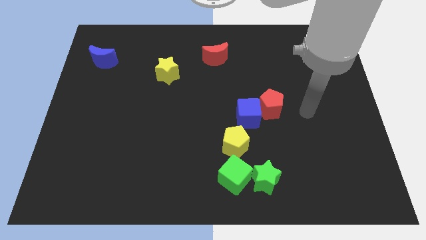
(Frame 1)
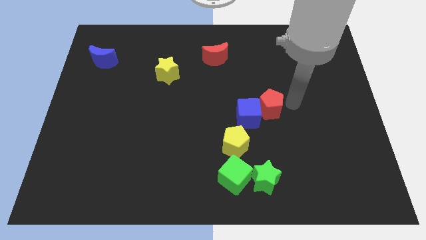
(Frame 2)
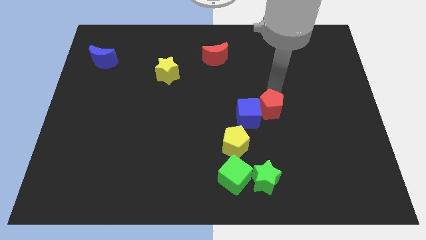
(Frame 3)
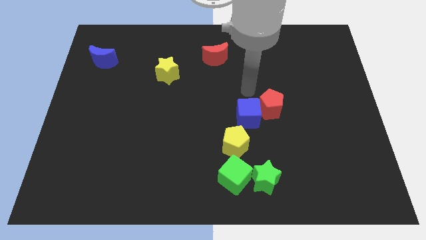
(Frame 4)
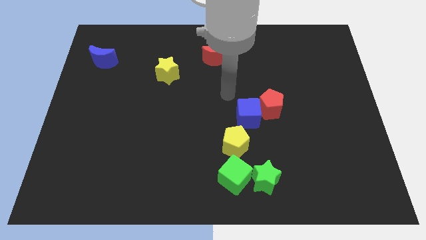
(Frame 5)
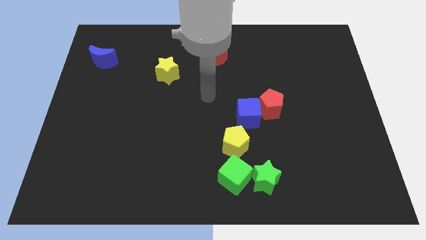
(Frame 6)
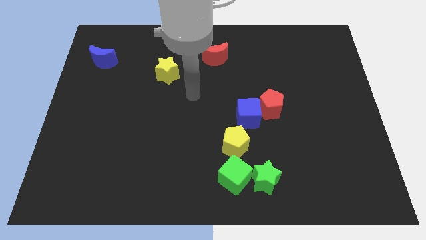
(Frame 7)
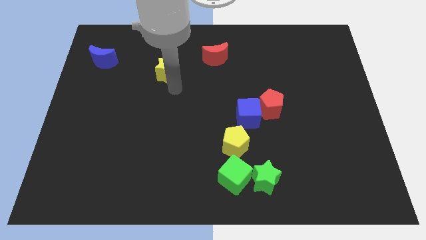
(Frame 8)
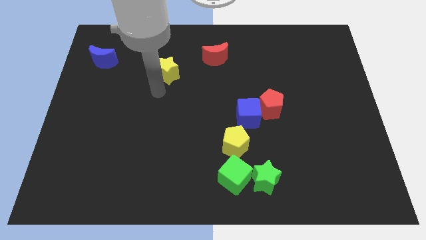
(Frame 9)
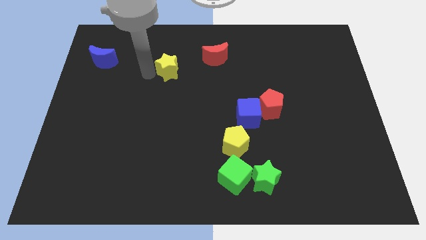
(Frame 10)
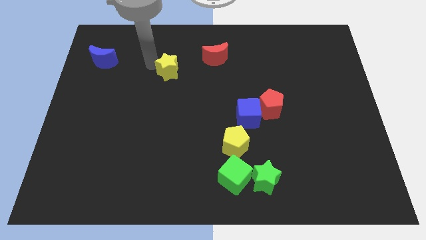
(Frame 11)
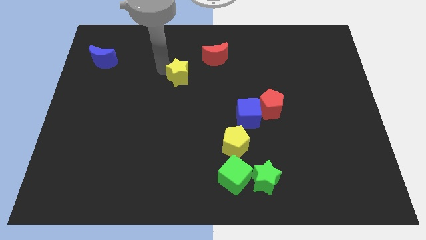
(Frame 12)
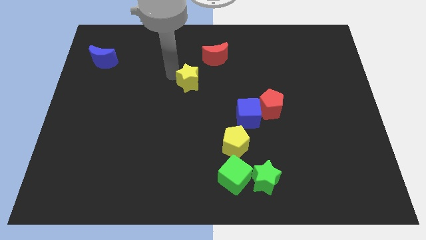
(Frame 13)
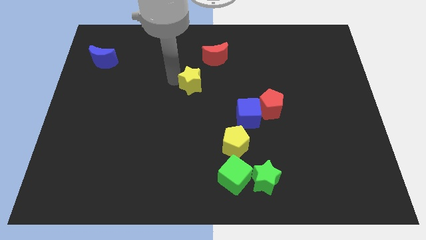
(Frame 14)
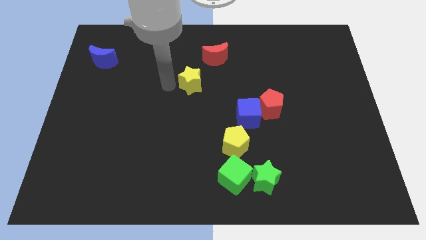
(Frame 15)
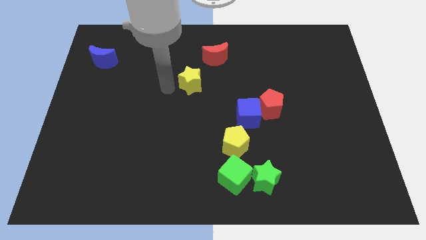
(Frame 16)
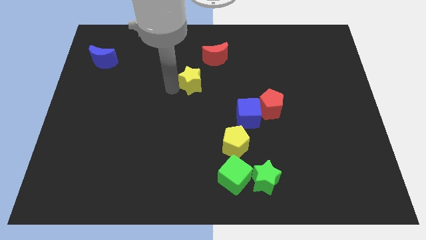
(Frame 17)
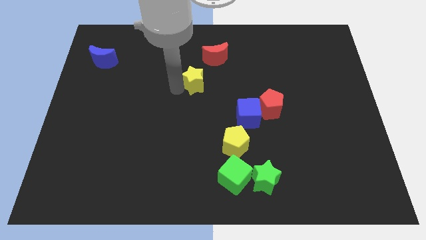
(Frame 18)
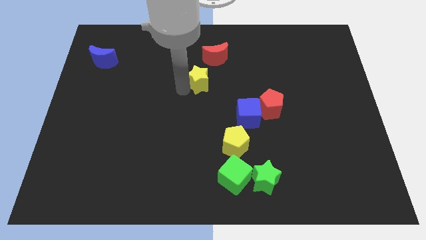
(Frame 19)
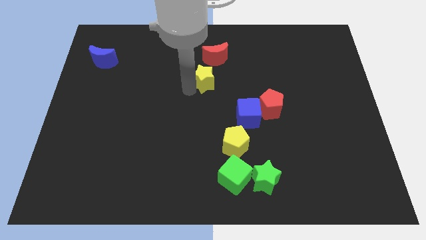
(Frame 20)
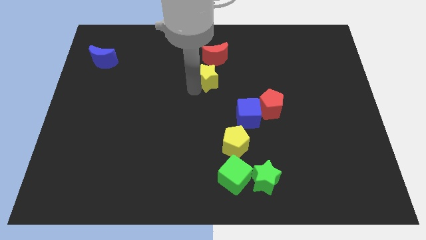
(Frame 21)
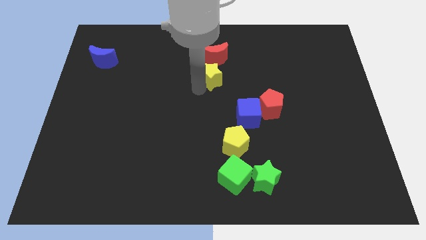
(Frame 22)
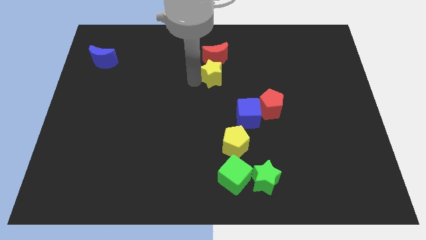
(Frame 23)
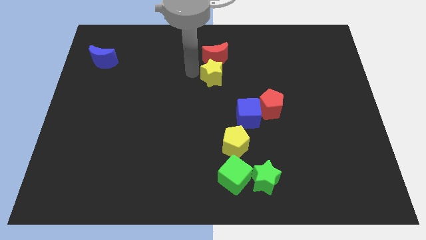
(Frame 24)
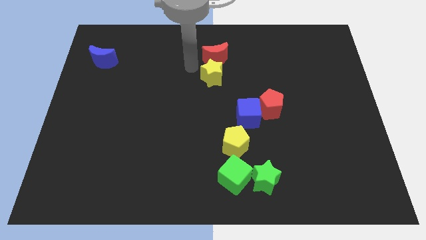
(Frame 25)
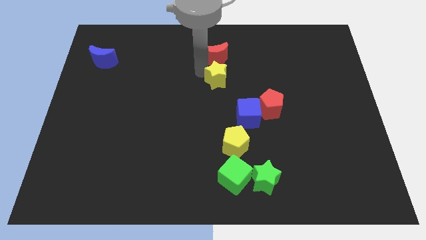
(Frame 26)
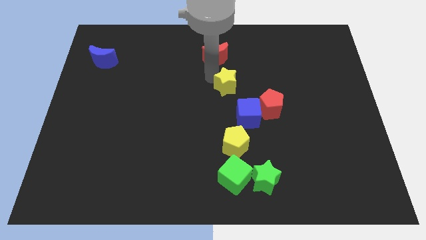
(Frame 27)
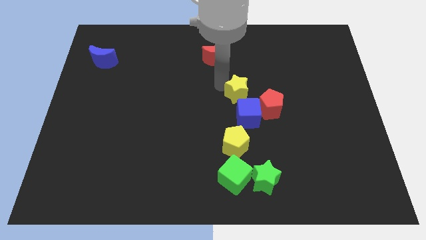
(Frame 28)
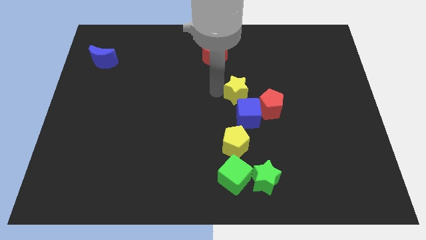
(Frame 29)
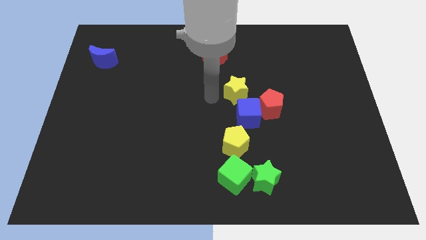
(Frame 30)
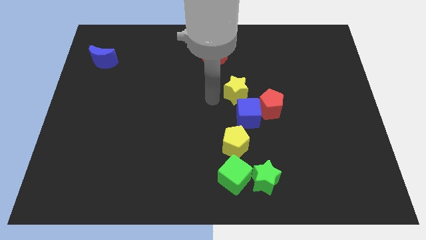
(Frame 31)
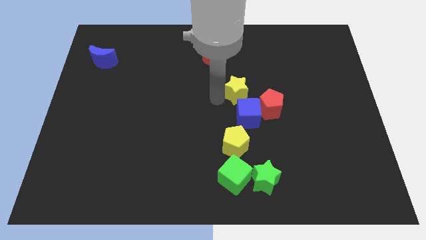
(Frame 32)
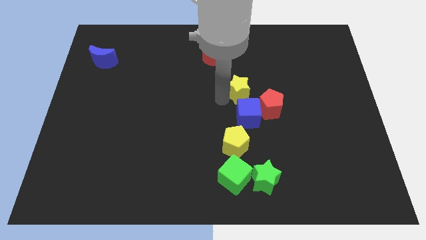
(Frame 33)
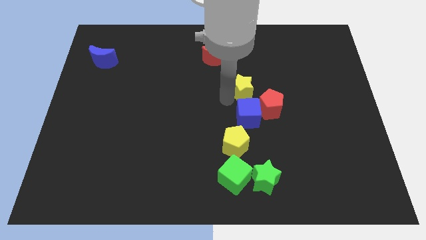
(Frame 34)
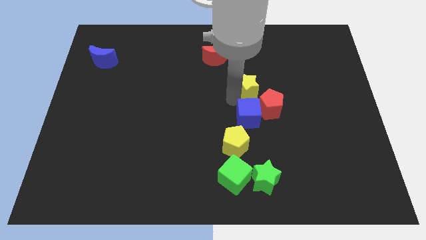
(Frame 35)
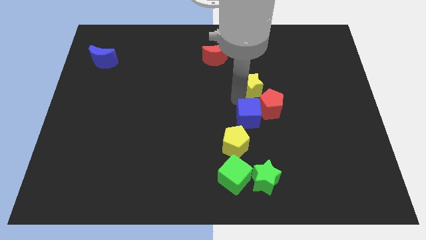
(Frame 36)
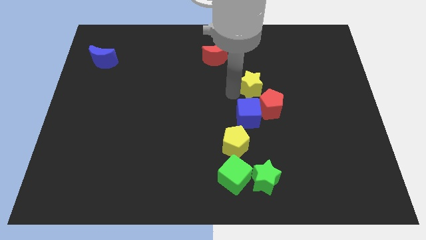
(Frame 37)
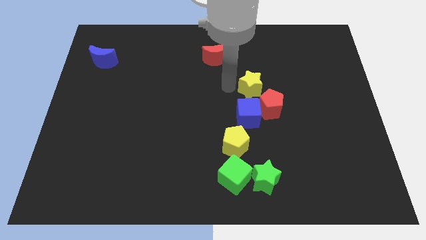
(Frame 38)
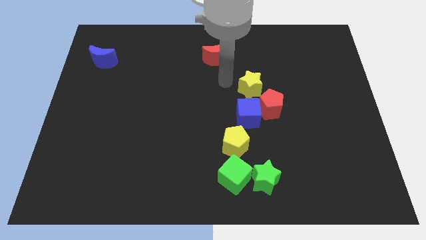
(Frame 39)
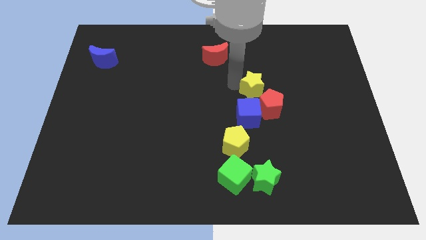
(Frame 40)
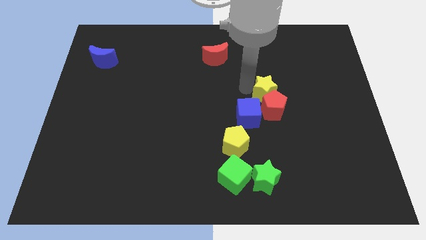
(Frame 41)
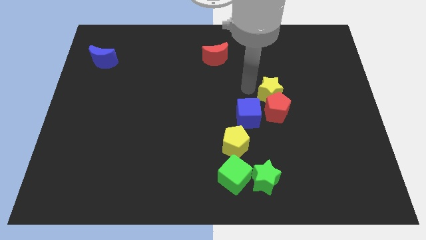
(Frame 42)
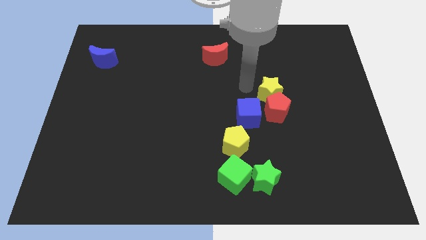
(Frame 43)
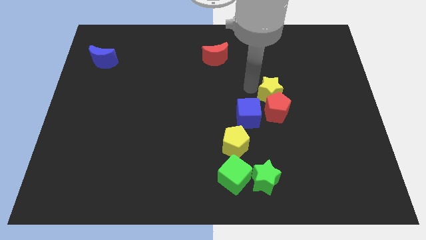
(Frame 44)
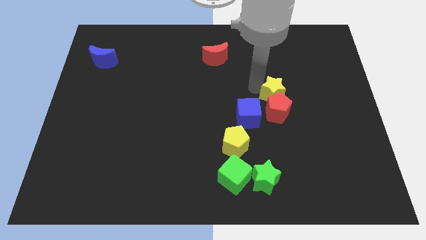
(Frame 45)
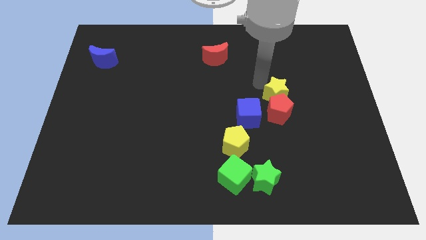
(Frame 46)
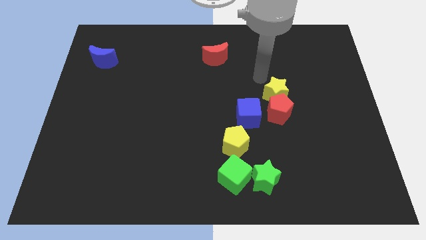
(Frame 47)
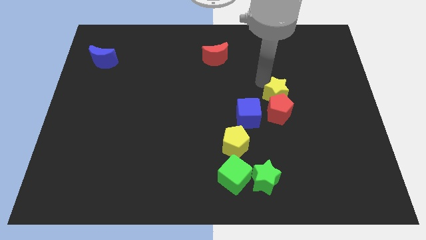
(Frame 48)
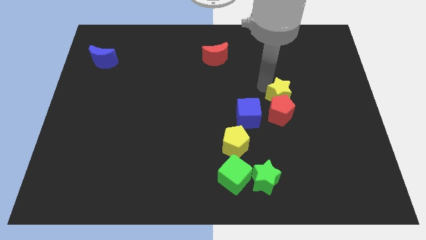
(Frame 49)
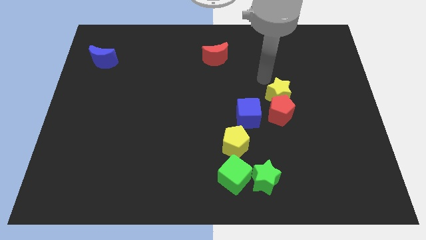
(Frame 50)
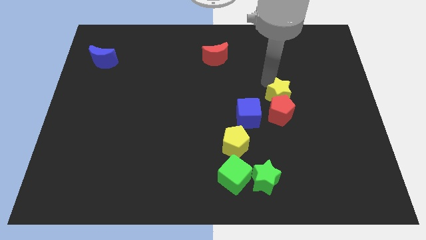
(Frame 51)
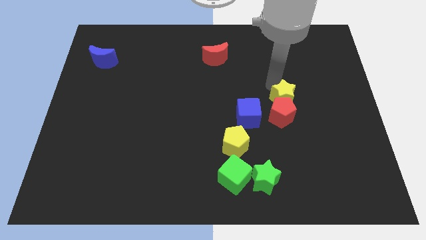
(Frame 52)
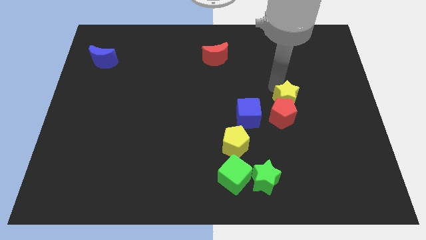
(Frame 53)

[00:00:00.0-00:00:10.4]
move the yellow star just right of the blue cube
